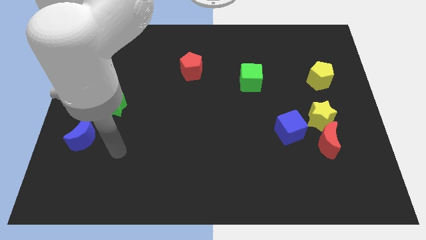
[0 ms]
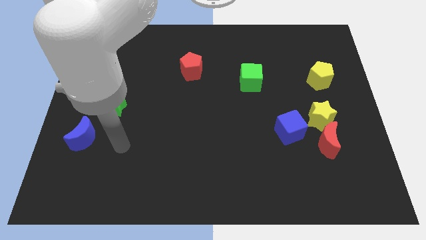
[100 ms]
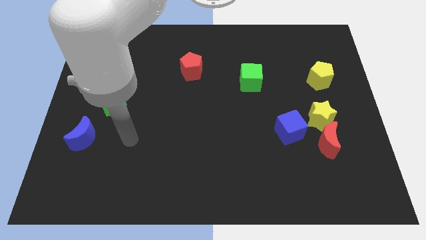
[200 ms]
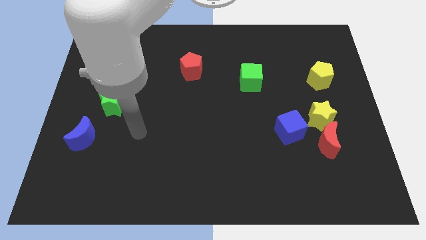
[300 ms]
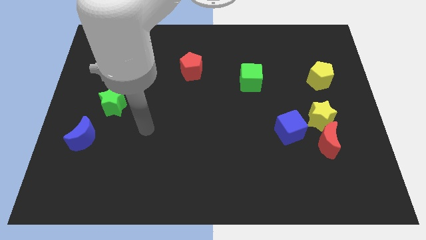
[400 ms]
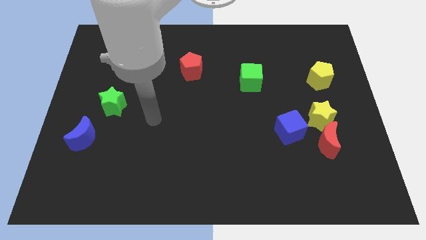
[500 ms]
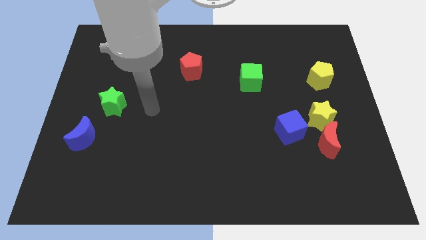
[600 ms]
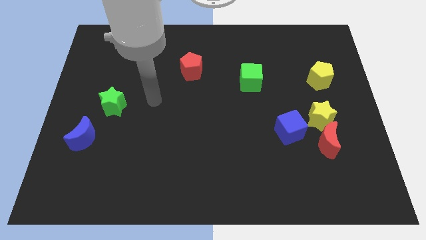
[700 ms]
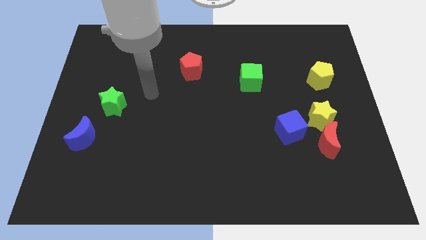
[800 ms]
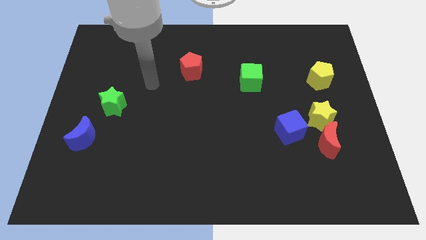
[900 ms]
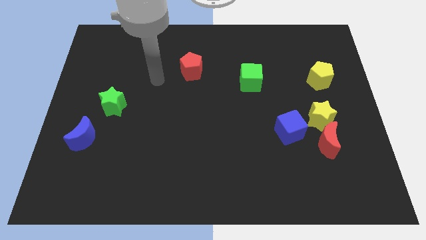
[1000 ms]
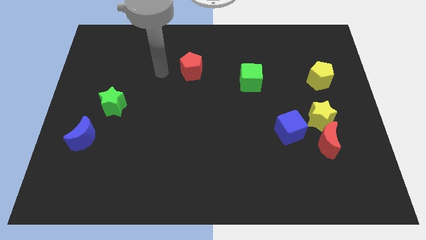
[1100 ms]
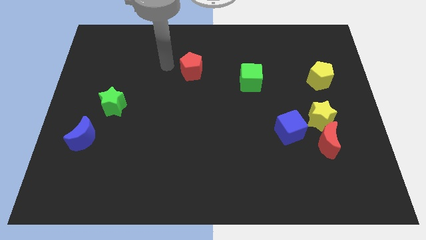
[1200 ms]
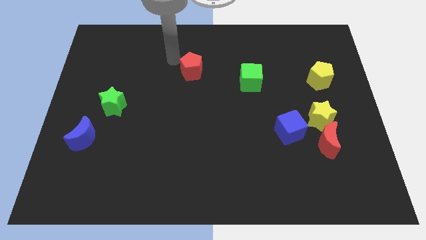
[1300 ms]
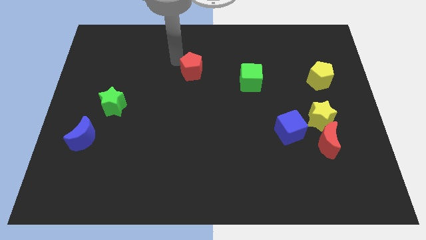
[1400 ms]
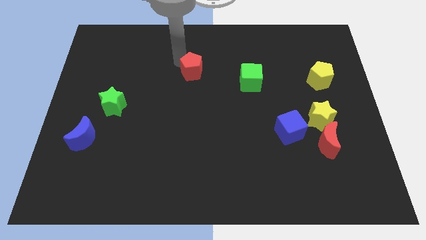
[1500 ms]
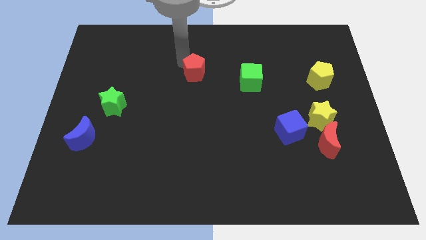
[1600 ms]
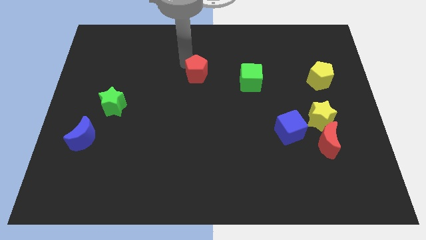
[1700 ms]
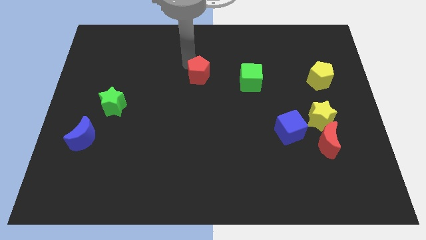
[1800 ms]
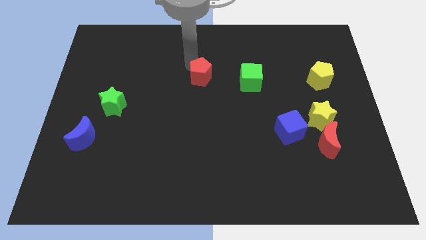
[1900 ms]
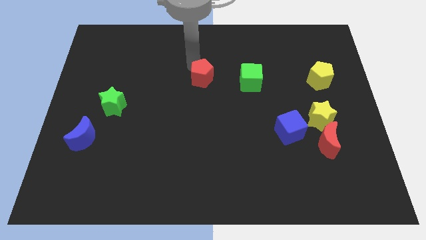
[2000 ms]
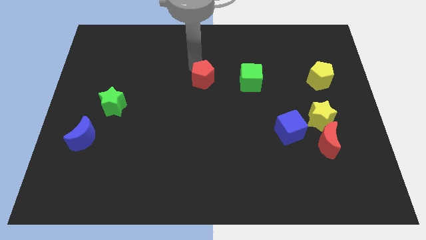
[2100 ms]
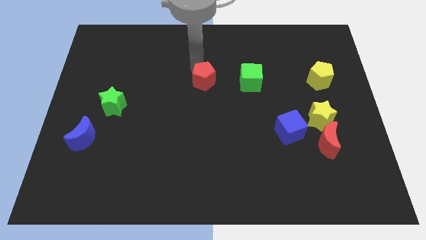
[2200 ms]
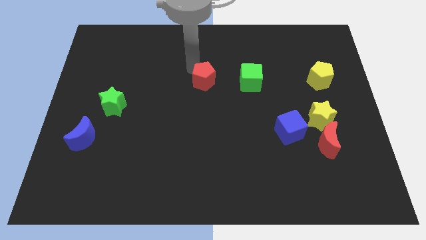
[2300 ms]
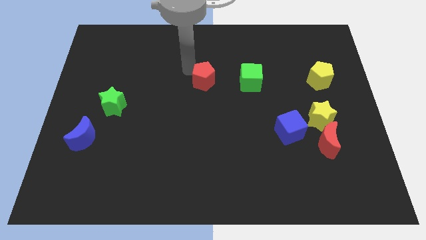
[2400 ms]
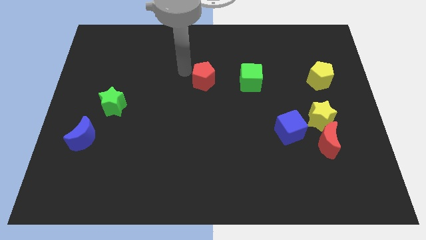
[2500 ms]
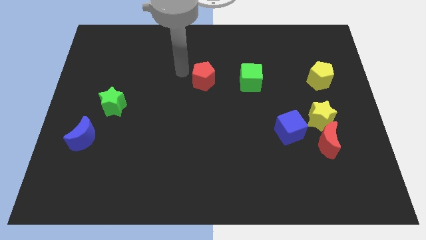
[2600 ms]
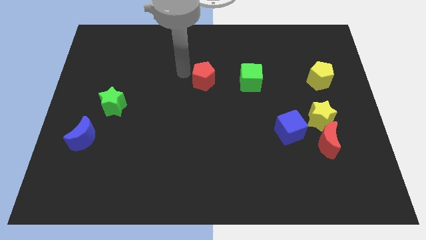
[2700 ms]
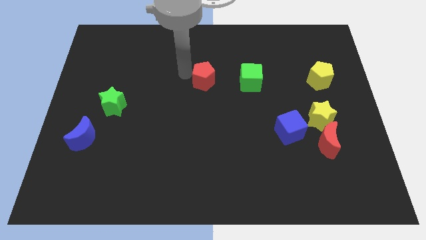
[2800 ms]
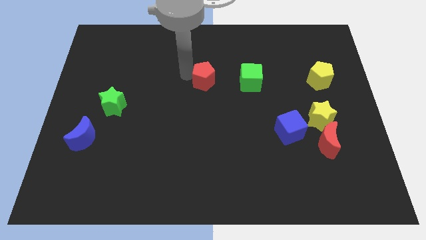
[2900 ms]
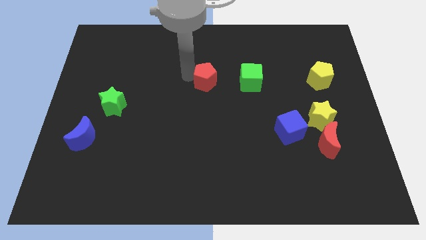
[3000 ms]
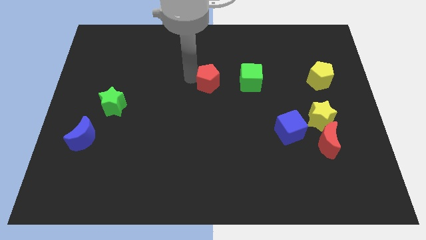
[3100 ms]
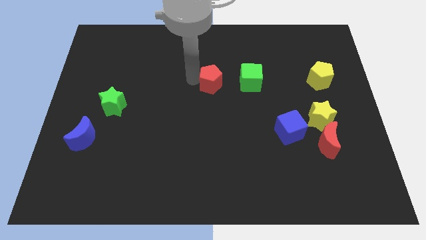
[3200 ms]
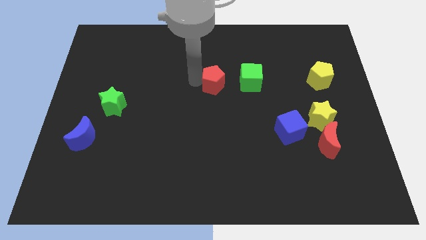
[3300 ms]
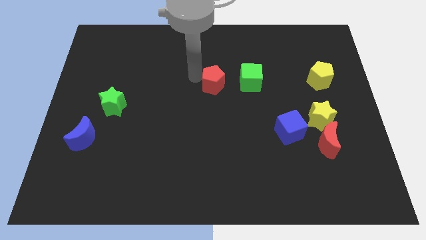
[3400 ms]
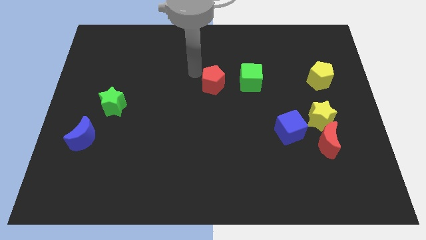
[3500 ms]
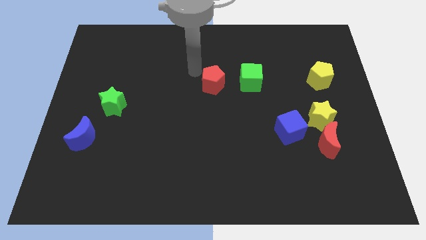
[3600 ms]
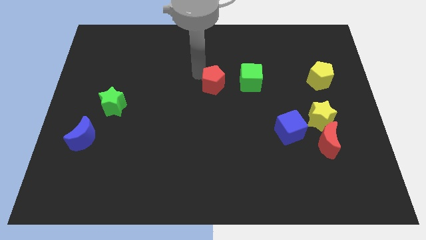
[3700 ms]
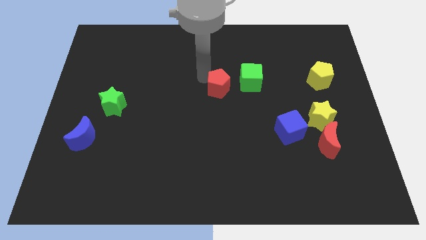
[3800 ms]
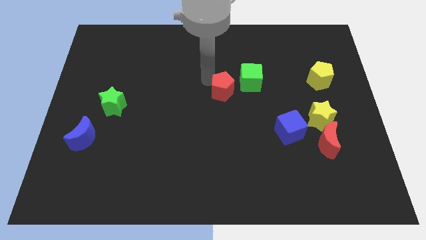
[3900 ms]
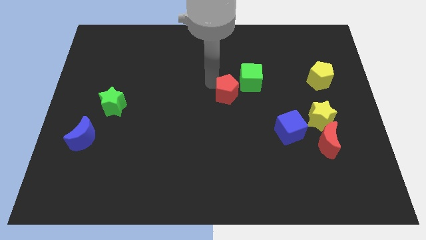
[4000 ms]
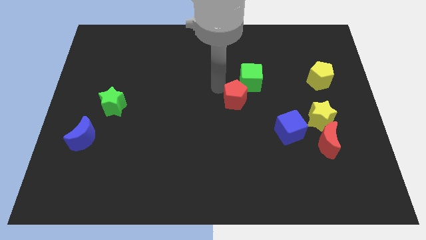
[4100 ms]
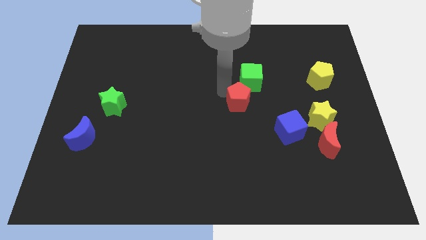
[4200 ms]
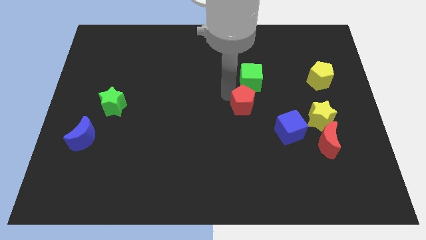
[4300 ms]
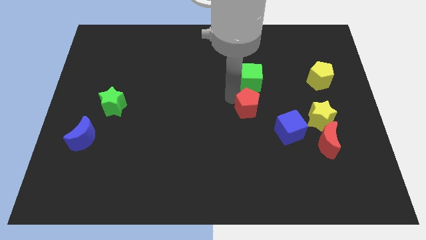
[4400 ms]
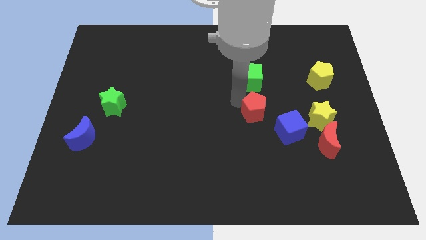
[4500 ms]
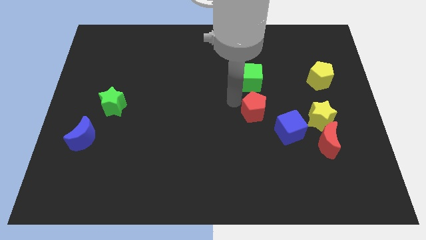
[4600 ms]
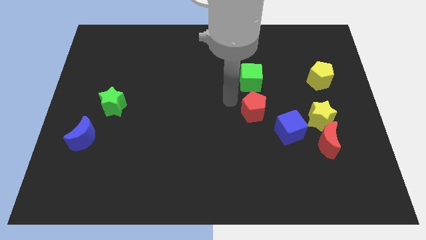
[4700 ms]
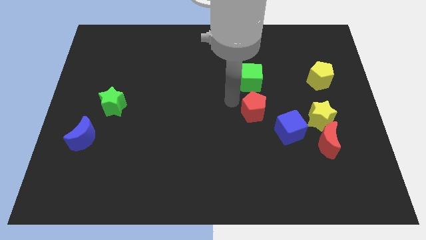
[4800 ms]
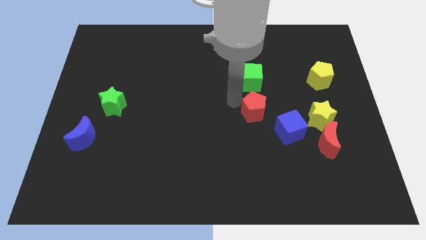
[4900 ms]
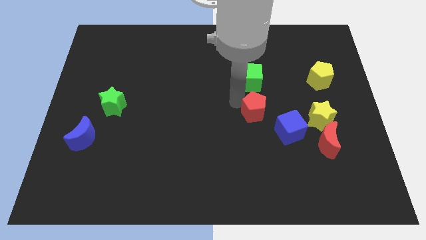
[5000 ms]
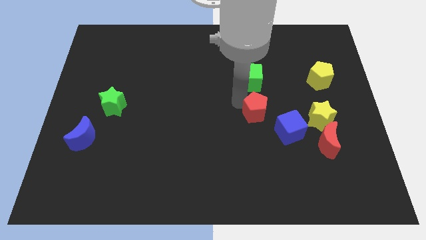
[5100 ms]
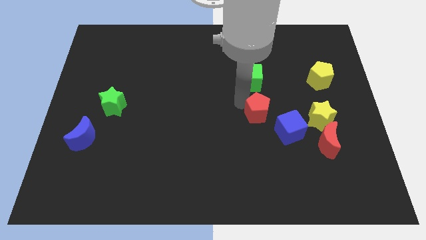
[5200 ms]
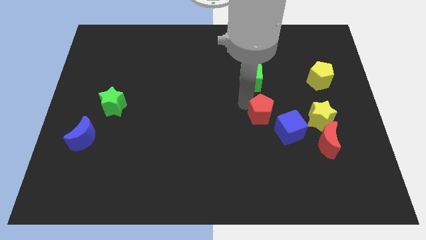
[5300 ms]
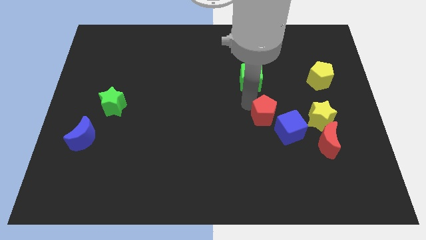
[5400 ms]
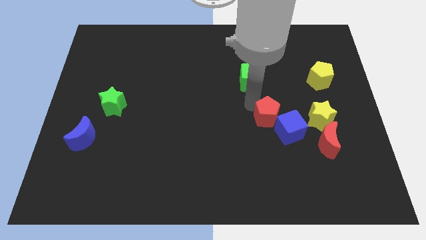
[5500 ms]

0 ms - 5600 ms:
move the red pentagon to the blue cube

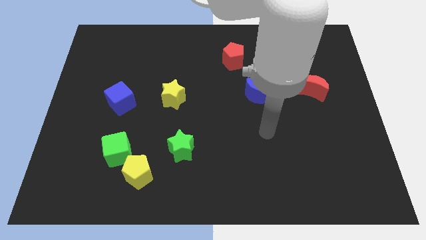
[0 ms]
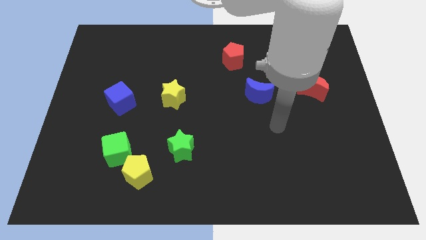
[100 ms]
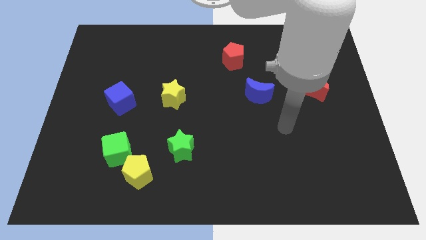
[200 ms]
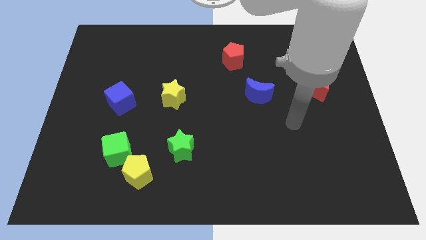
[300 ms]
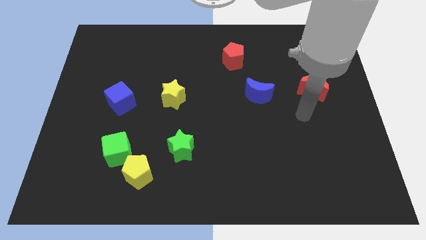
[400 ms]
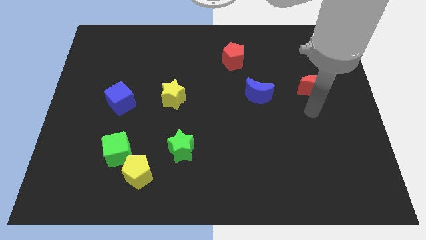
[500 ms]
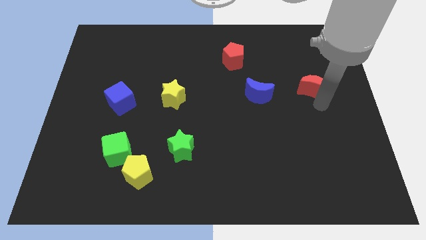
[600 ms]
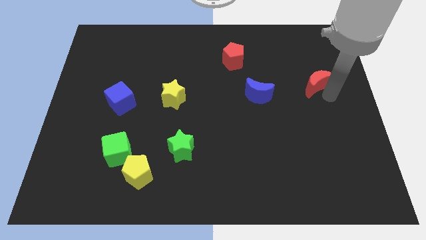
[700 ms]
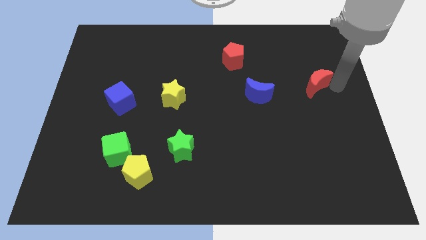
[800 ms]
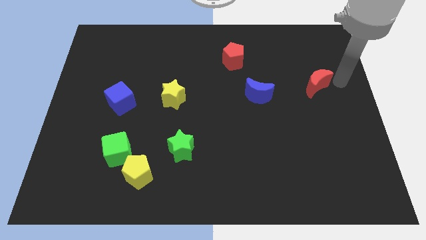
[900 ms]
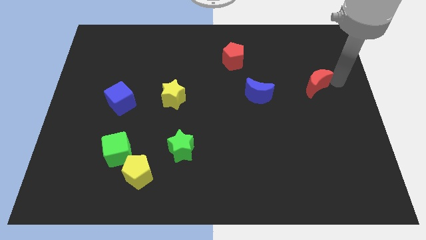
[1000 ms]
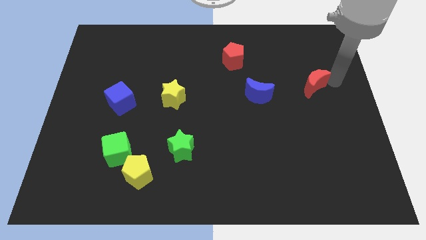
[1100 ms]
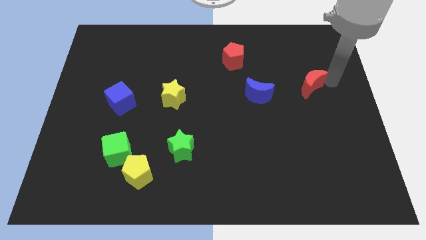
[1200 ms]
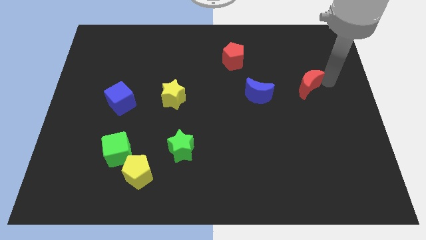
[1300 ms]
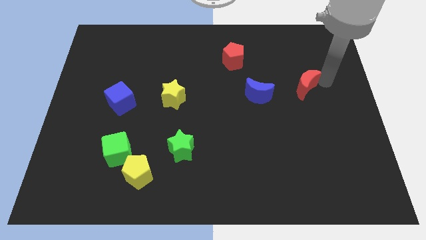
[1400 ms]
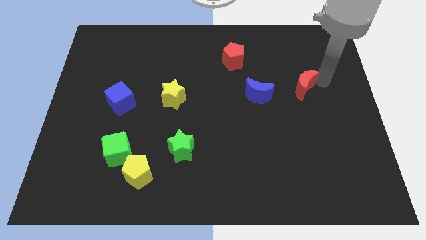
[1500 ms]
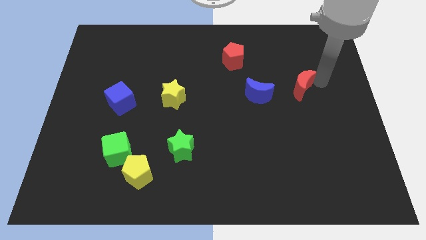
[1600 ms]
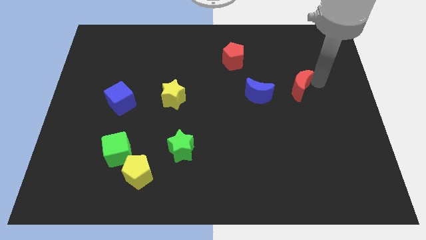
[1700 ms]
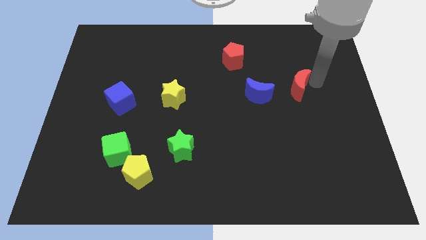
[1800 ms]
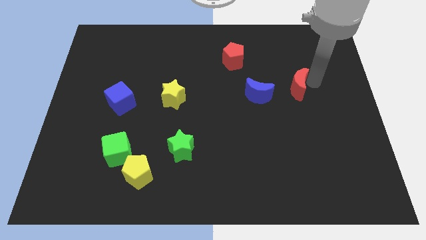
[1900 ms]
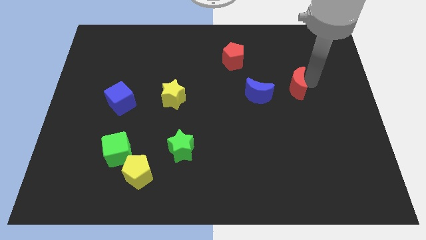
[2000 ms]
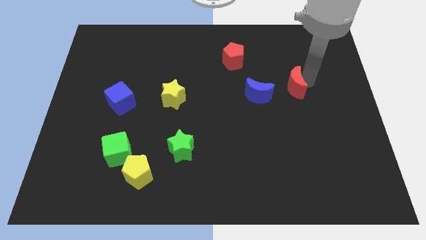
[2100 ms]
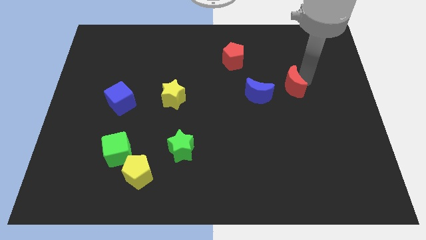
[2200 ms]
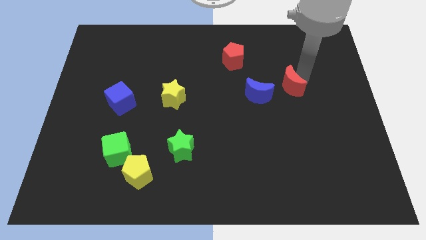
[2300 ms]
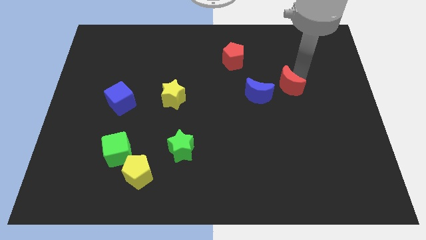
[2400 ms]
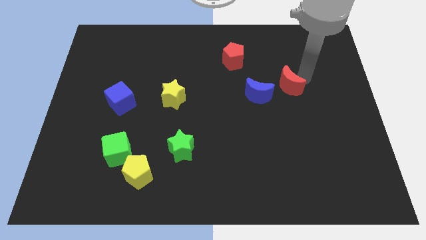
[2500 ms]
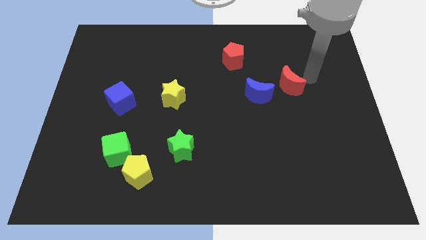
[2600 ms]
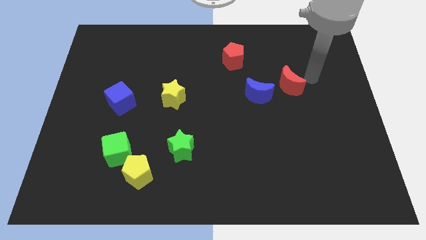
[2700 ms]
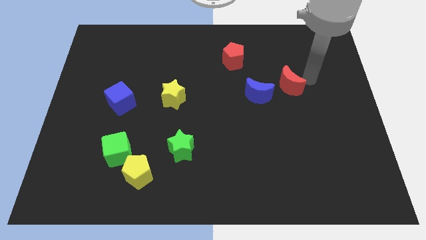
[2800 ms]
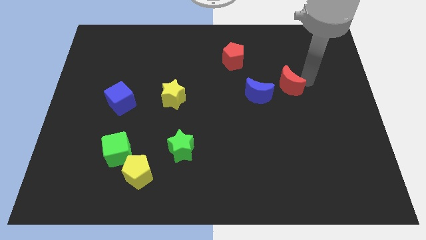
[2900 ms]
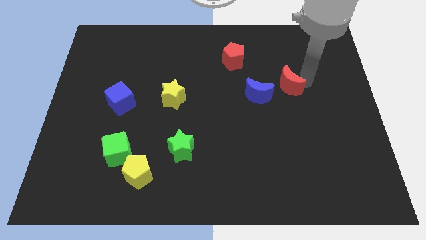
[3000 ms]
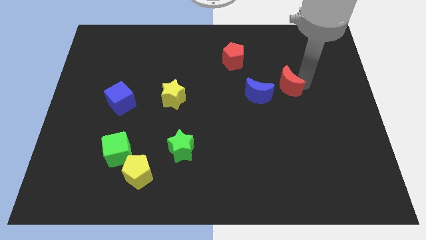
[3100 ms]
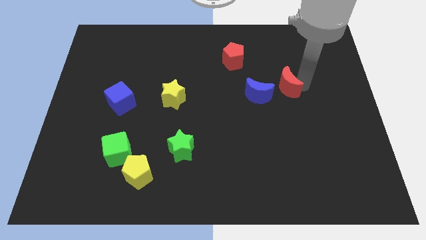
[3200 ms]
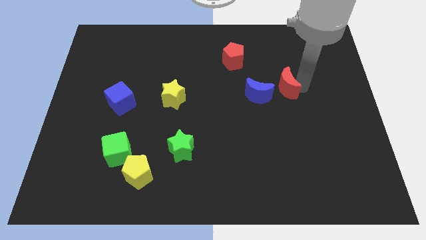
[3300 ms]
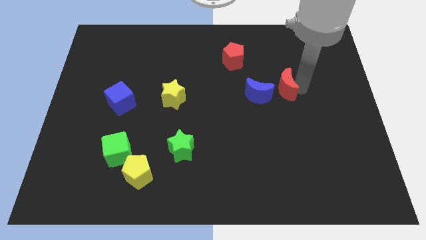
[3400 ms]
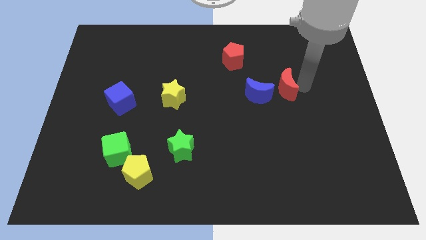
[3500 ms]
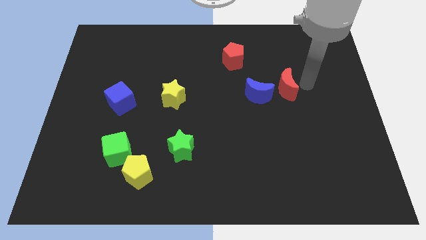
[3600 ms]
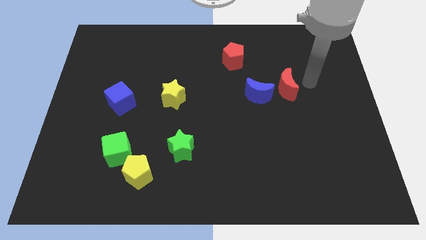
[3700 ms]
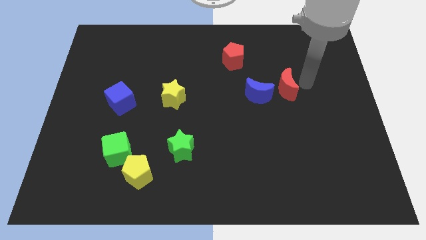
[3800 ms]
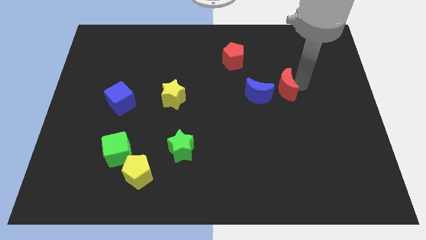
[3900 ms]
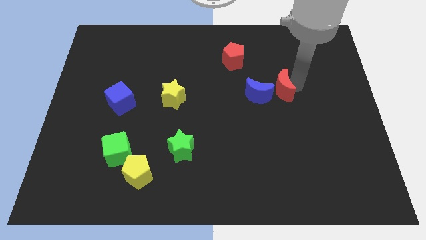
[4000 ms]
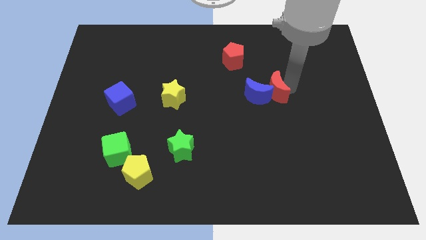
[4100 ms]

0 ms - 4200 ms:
push the red moon next to the blue moon
